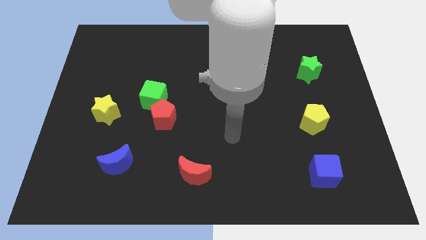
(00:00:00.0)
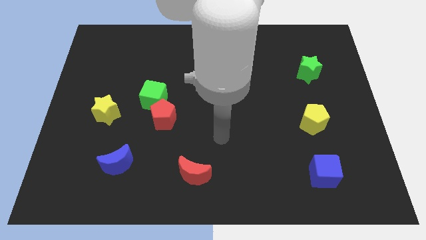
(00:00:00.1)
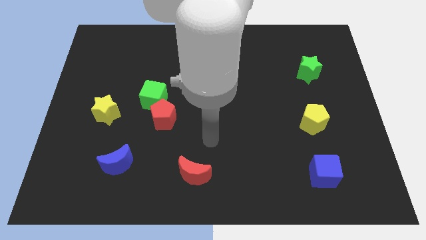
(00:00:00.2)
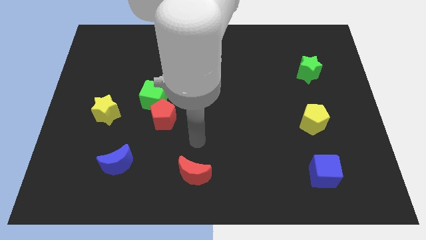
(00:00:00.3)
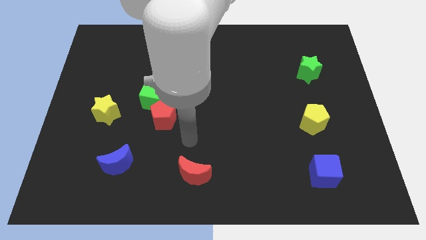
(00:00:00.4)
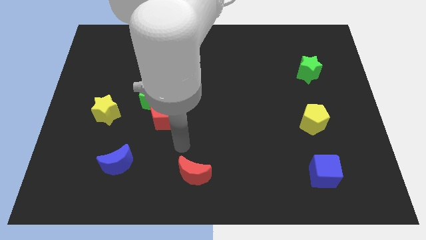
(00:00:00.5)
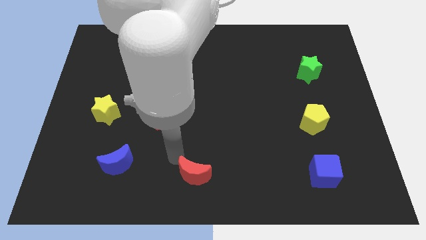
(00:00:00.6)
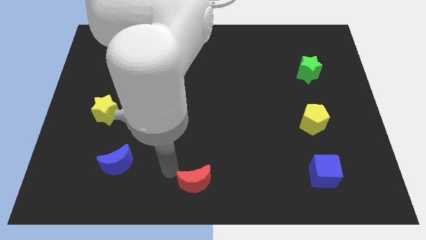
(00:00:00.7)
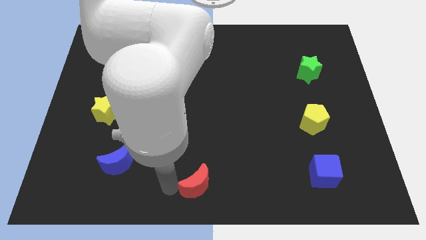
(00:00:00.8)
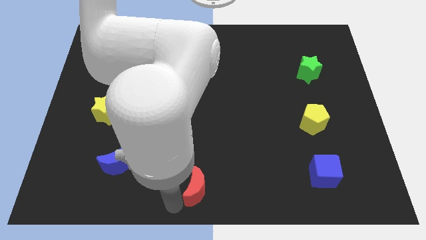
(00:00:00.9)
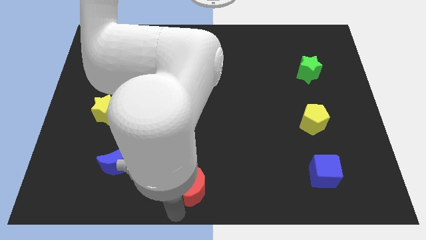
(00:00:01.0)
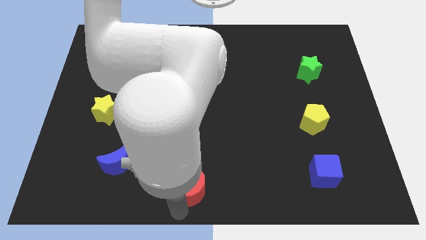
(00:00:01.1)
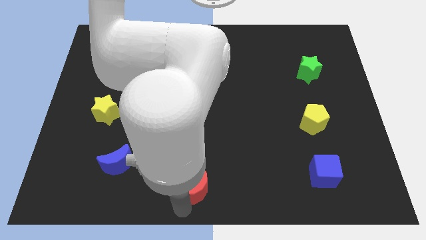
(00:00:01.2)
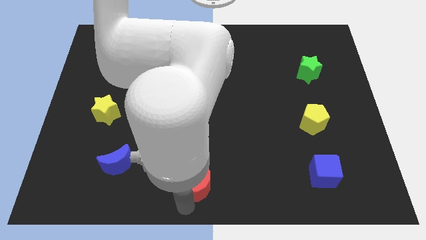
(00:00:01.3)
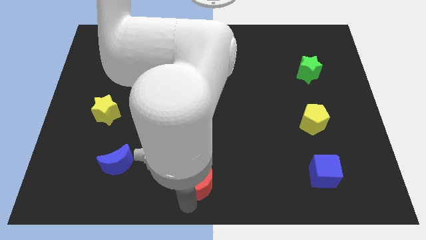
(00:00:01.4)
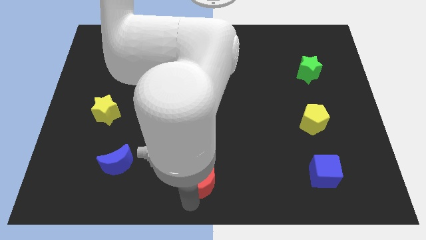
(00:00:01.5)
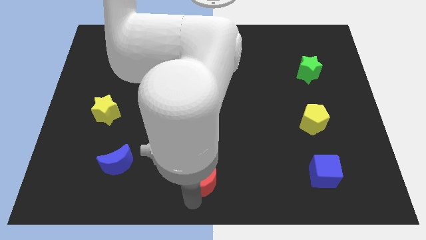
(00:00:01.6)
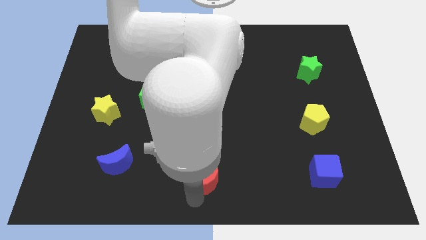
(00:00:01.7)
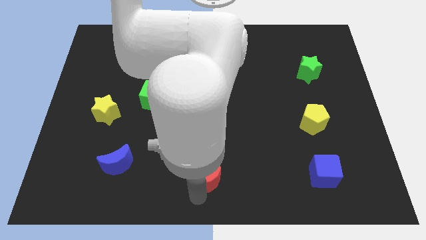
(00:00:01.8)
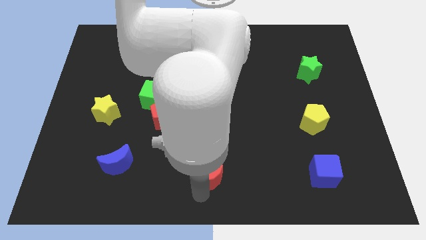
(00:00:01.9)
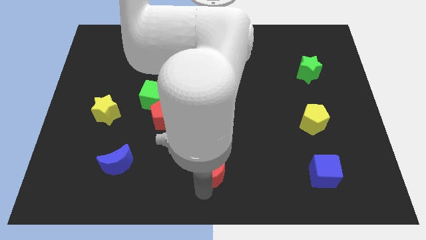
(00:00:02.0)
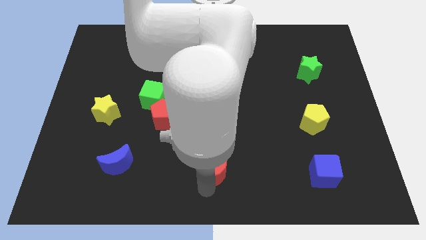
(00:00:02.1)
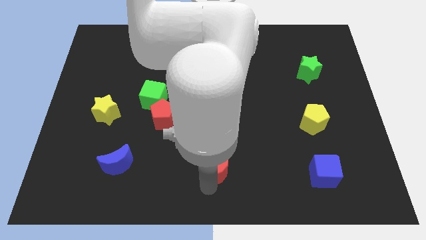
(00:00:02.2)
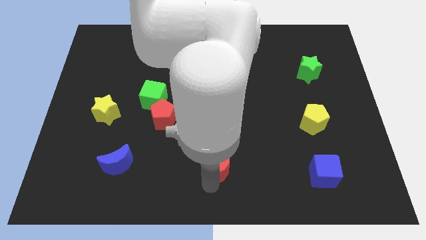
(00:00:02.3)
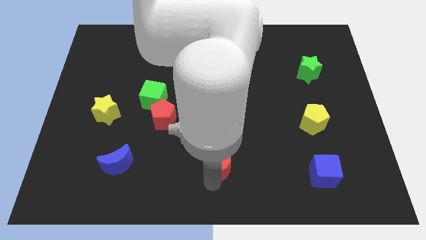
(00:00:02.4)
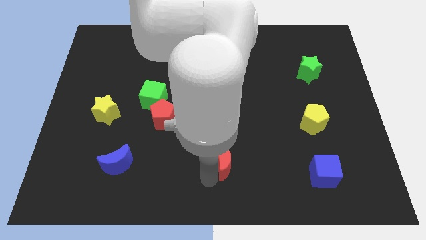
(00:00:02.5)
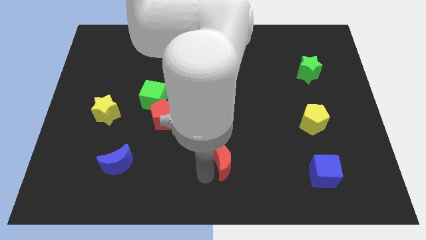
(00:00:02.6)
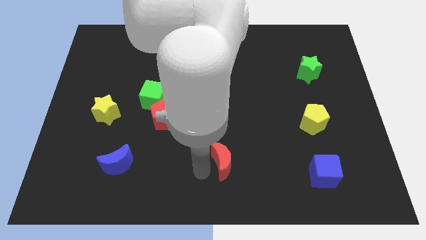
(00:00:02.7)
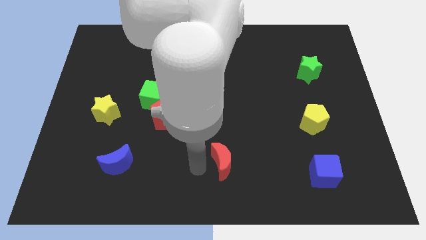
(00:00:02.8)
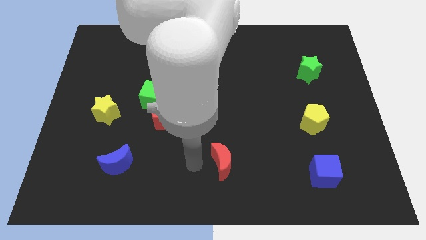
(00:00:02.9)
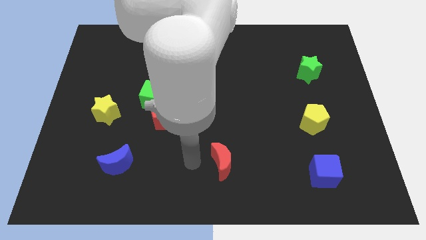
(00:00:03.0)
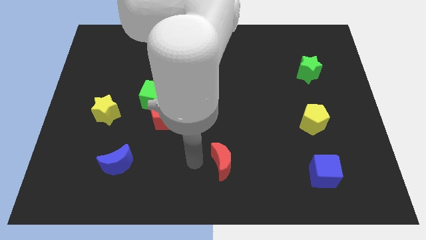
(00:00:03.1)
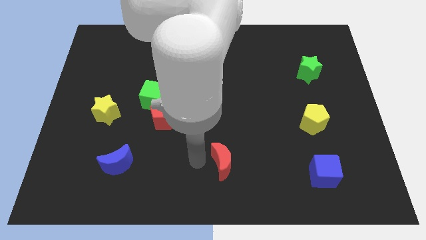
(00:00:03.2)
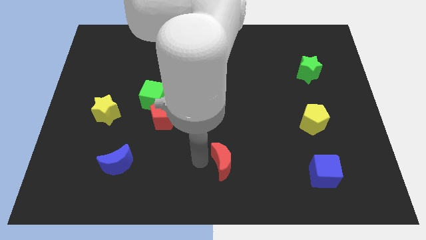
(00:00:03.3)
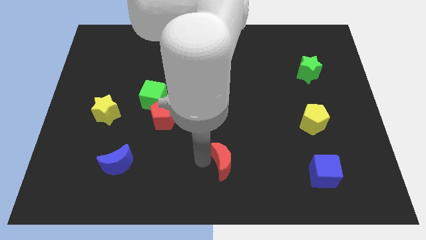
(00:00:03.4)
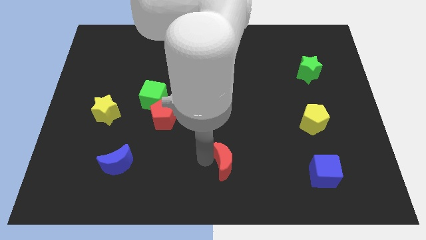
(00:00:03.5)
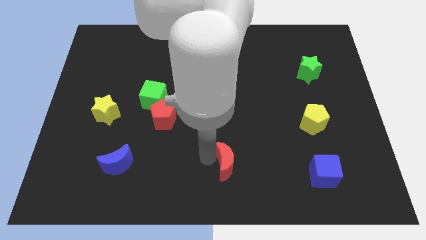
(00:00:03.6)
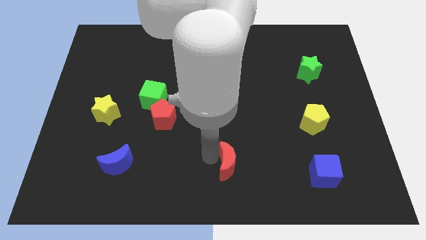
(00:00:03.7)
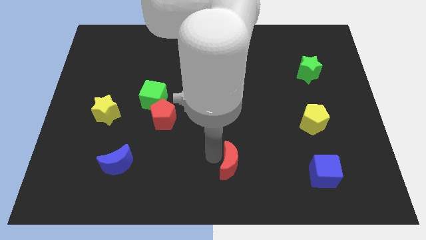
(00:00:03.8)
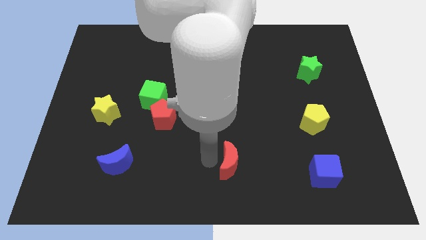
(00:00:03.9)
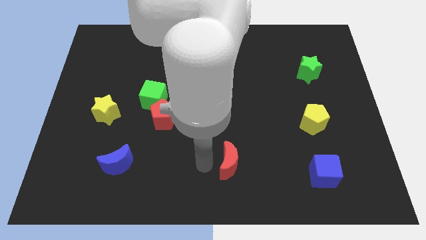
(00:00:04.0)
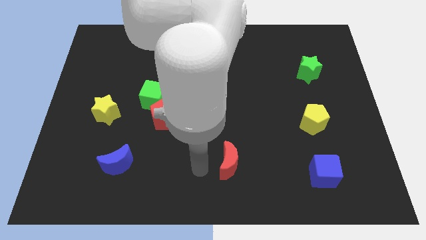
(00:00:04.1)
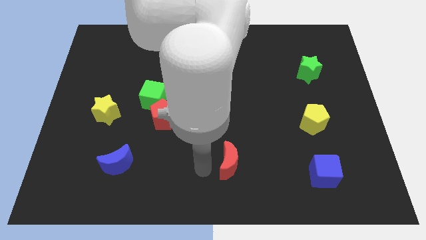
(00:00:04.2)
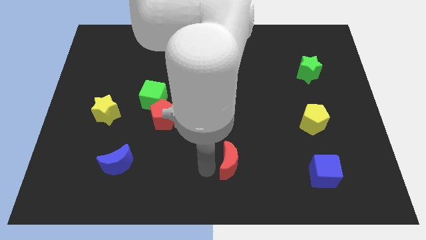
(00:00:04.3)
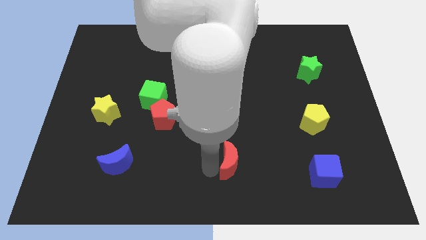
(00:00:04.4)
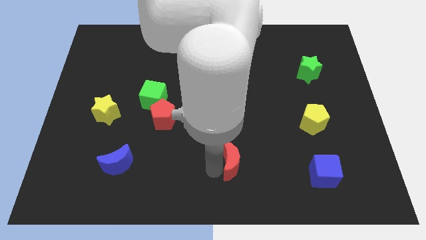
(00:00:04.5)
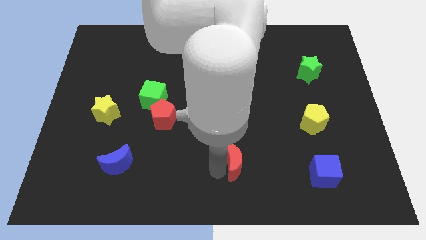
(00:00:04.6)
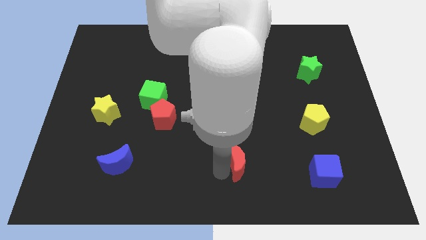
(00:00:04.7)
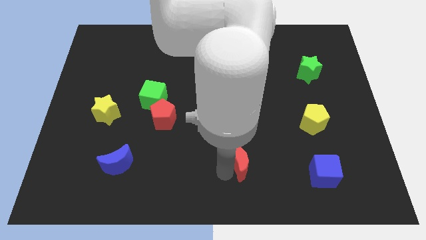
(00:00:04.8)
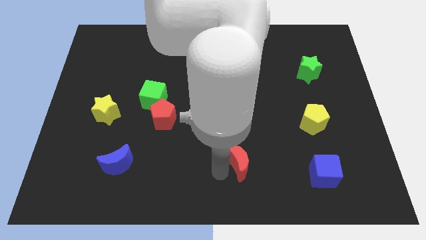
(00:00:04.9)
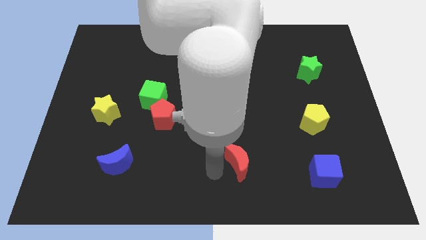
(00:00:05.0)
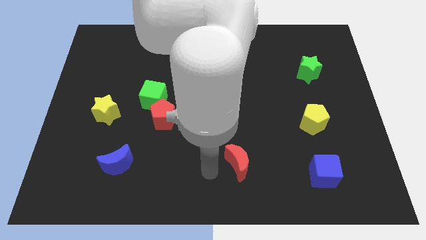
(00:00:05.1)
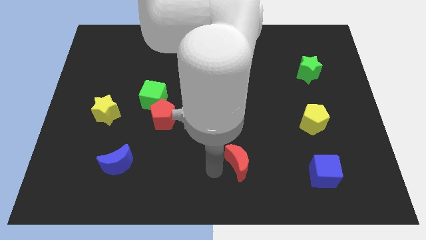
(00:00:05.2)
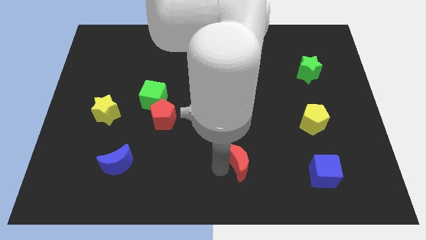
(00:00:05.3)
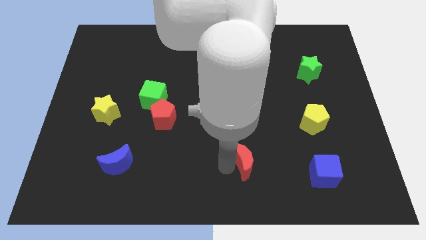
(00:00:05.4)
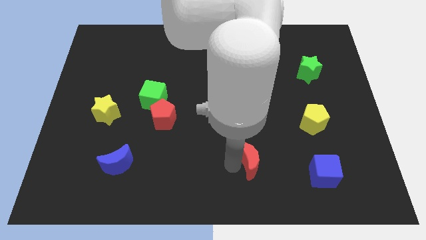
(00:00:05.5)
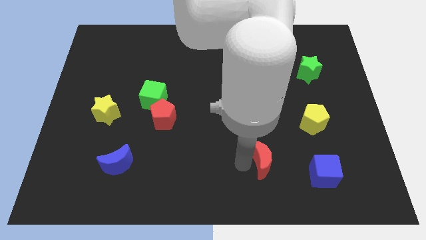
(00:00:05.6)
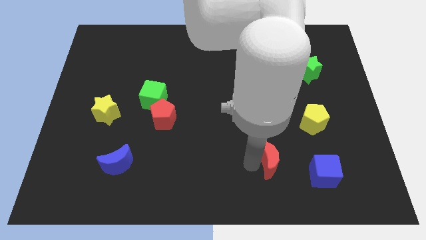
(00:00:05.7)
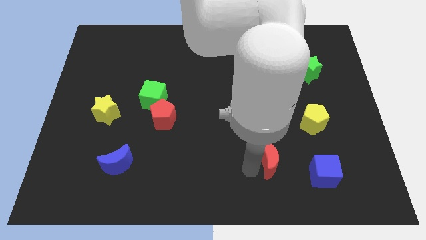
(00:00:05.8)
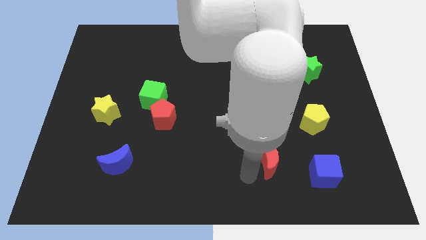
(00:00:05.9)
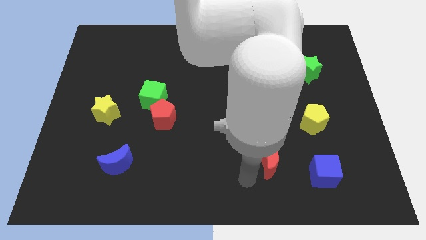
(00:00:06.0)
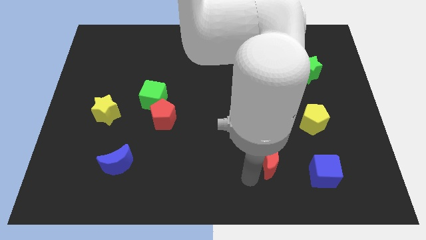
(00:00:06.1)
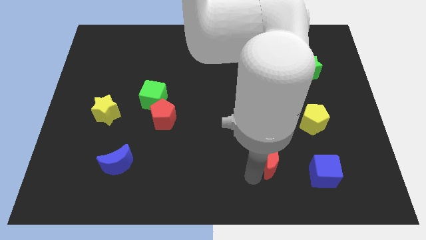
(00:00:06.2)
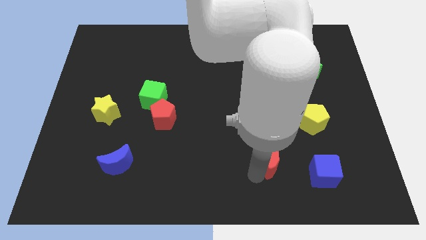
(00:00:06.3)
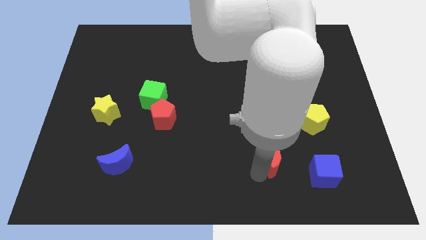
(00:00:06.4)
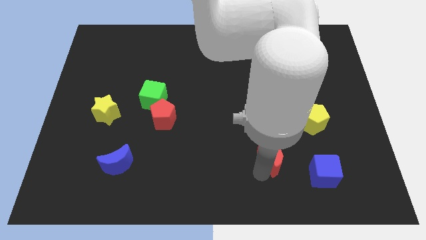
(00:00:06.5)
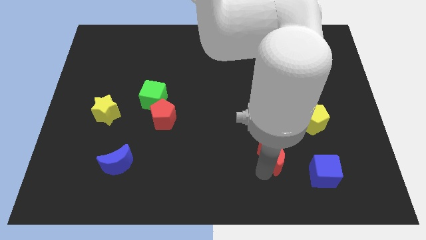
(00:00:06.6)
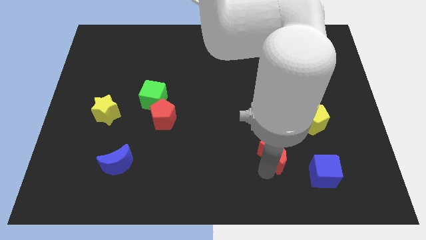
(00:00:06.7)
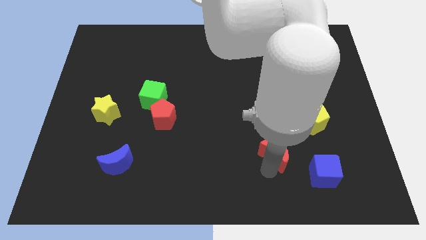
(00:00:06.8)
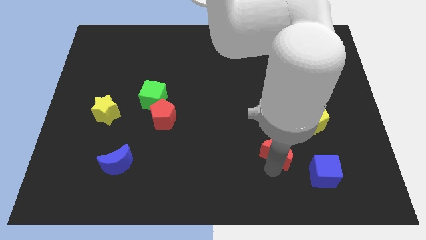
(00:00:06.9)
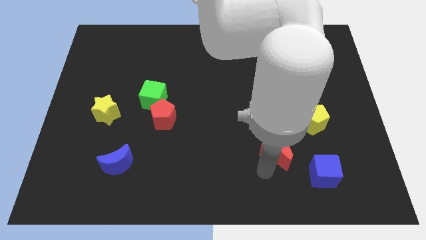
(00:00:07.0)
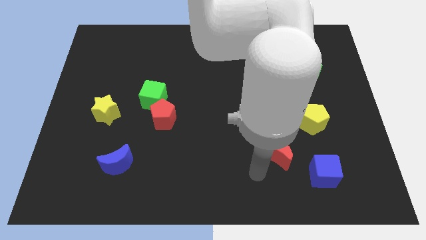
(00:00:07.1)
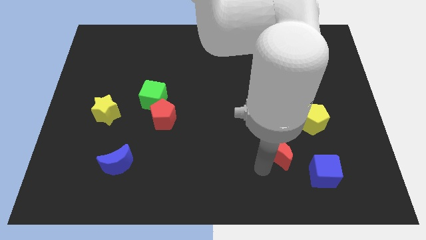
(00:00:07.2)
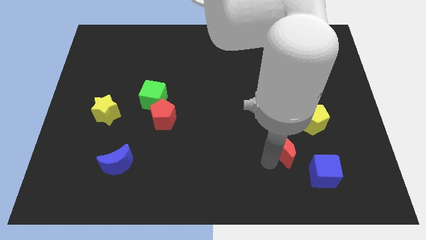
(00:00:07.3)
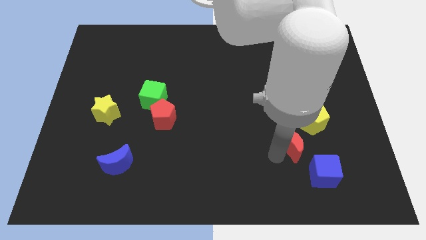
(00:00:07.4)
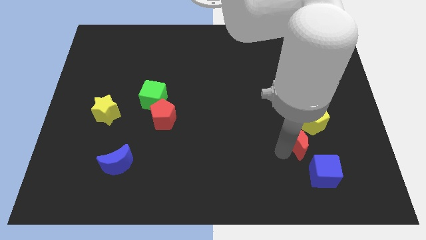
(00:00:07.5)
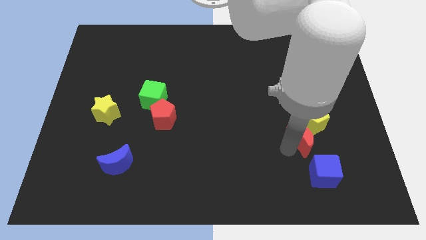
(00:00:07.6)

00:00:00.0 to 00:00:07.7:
slide the red moon close to the yellow pentagon
